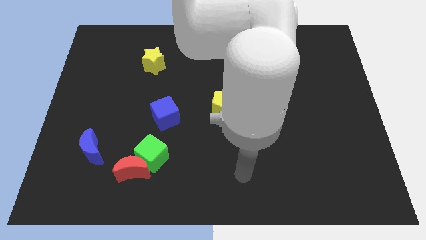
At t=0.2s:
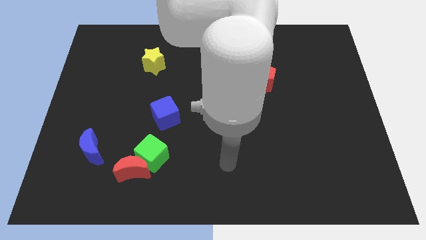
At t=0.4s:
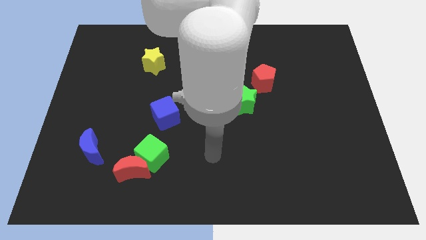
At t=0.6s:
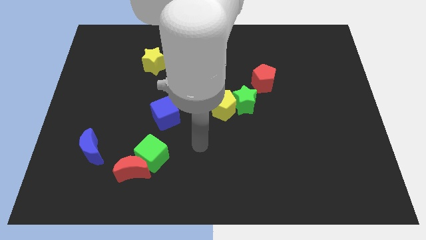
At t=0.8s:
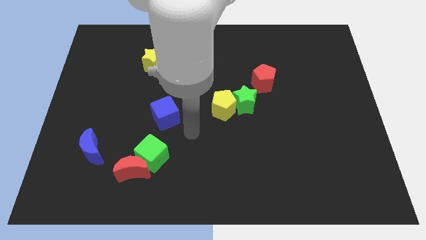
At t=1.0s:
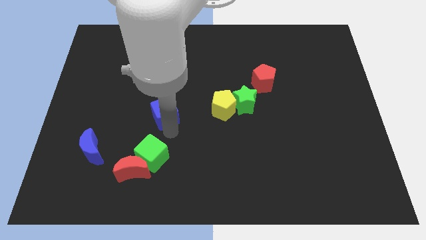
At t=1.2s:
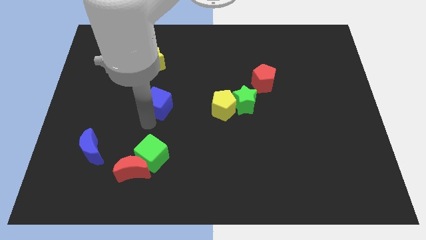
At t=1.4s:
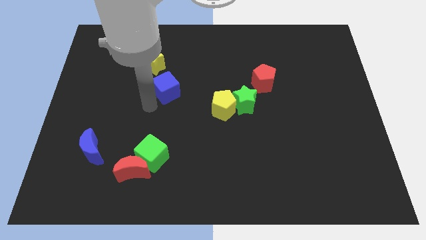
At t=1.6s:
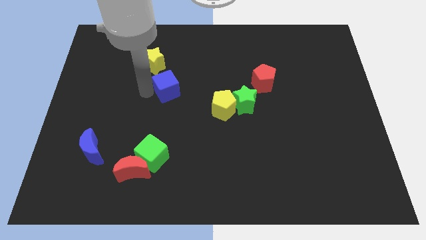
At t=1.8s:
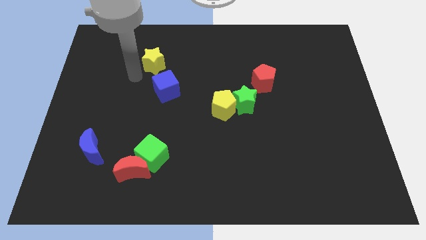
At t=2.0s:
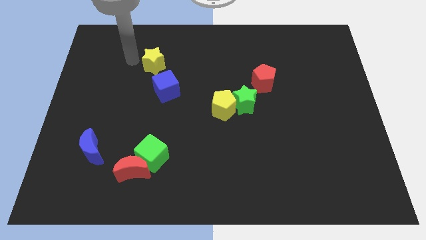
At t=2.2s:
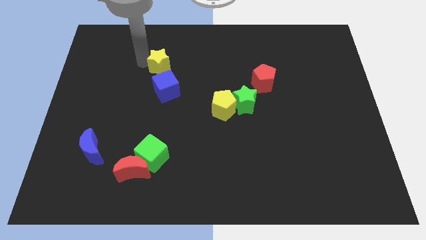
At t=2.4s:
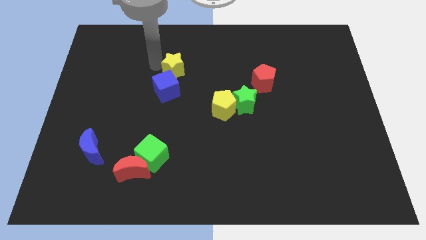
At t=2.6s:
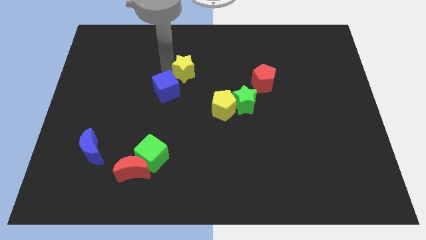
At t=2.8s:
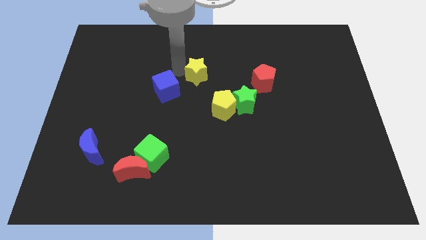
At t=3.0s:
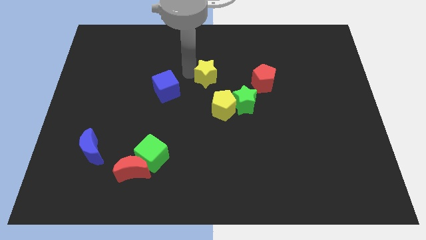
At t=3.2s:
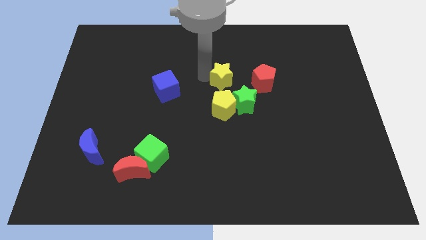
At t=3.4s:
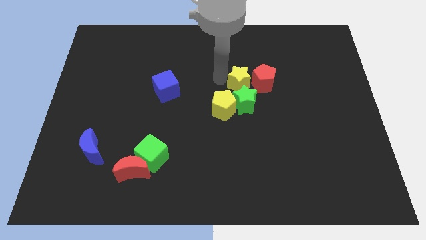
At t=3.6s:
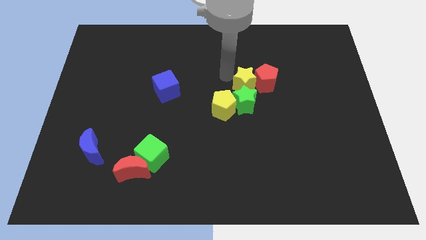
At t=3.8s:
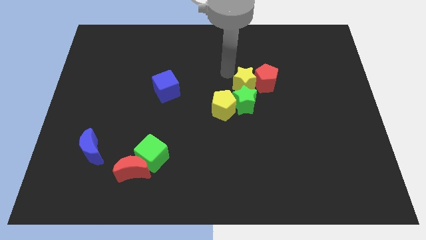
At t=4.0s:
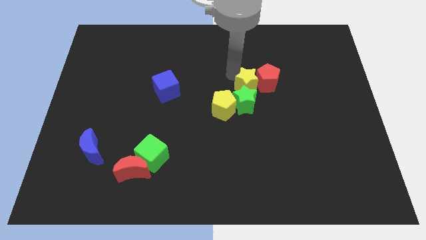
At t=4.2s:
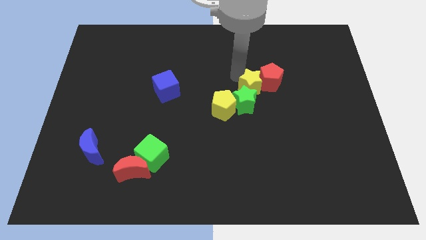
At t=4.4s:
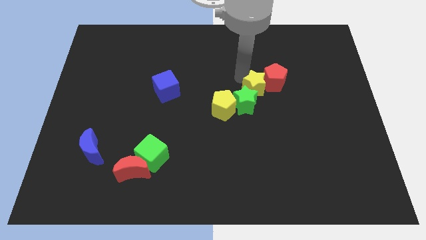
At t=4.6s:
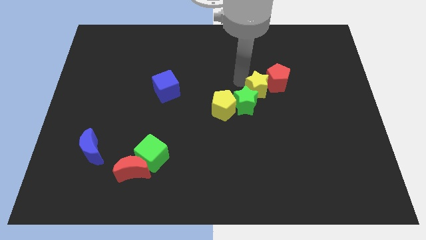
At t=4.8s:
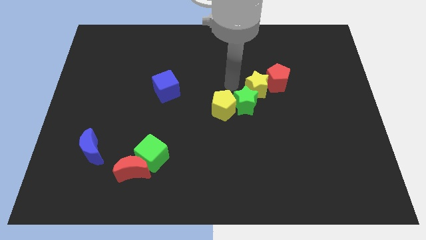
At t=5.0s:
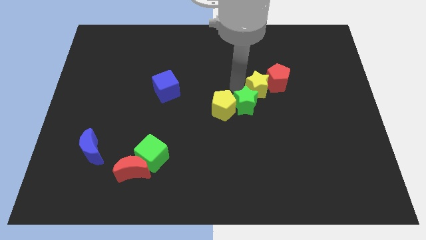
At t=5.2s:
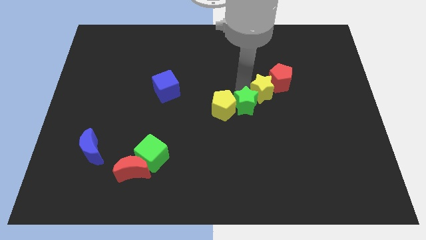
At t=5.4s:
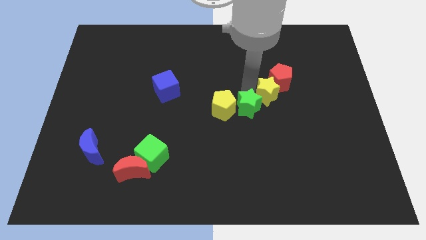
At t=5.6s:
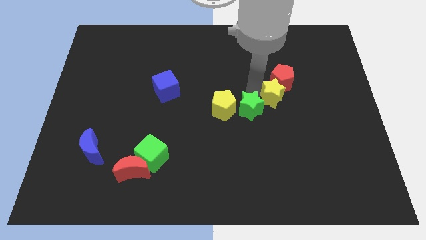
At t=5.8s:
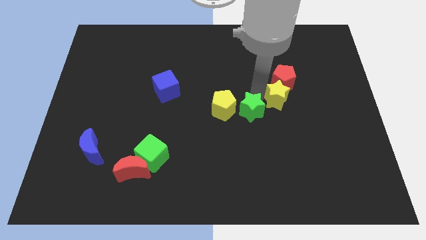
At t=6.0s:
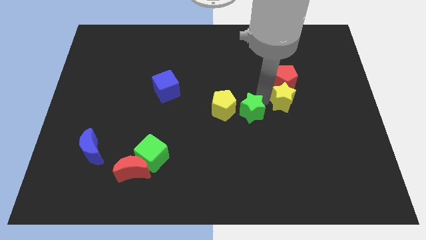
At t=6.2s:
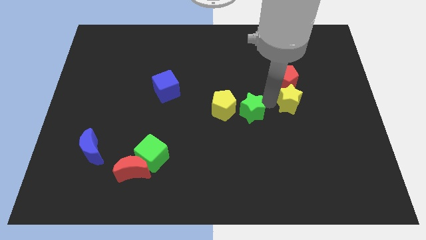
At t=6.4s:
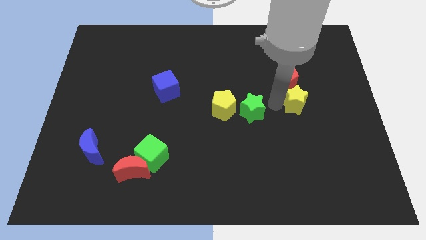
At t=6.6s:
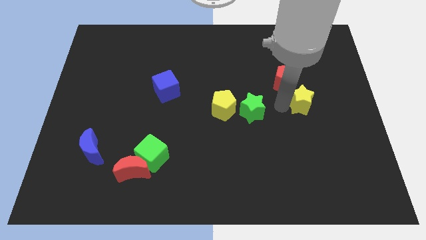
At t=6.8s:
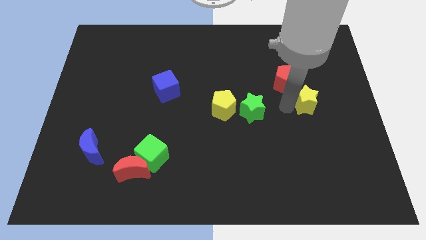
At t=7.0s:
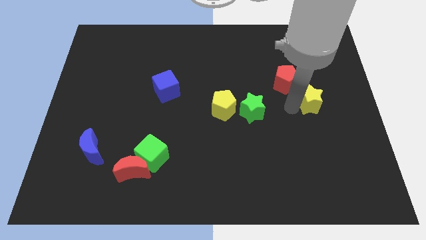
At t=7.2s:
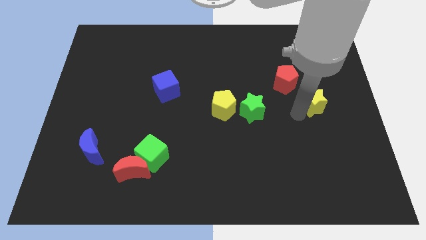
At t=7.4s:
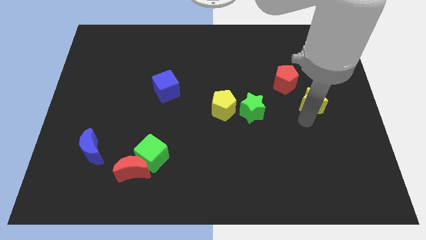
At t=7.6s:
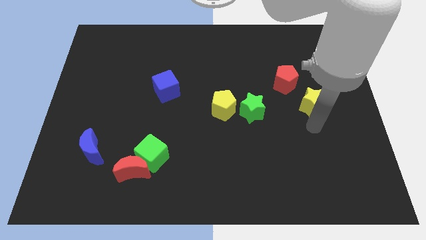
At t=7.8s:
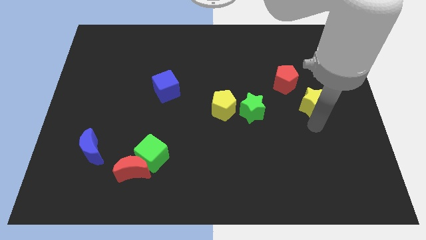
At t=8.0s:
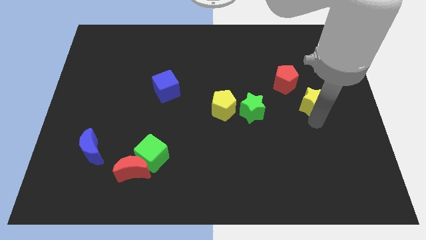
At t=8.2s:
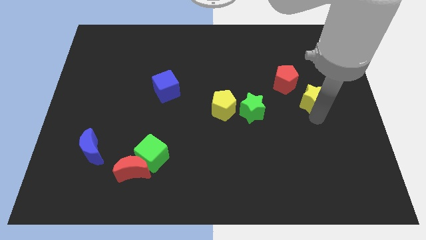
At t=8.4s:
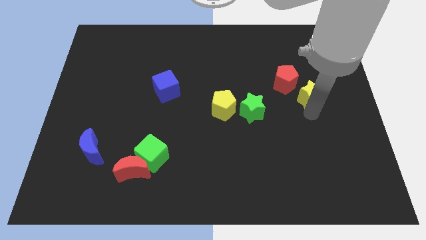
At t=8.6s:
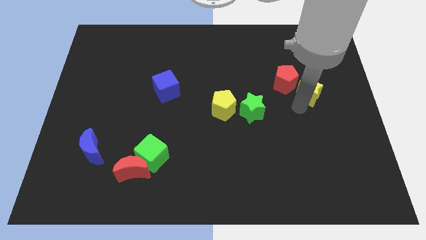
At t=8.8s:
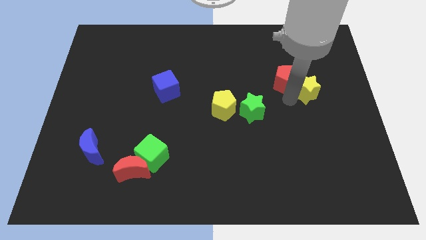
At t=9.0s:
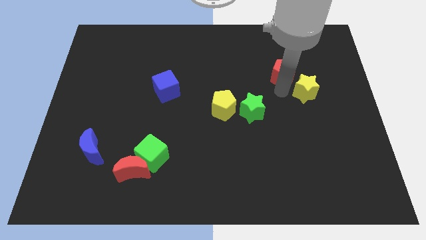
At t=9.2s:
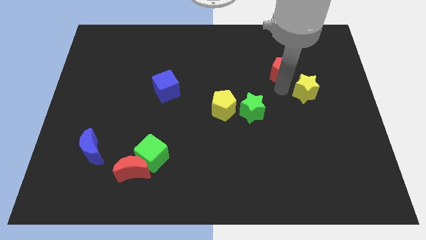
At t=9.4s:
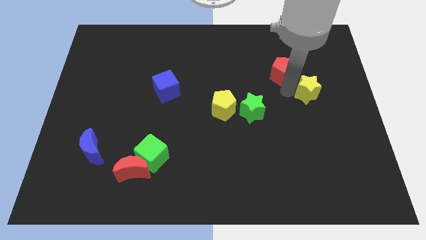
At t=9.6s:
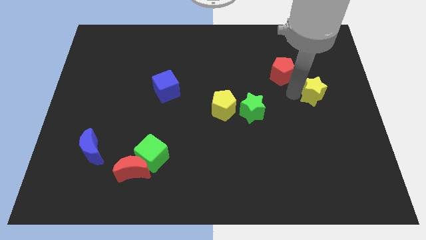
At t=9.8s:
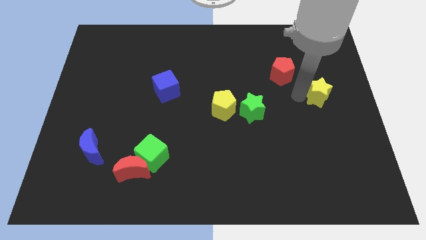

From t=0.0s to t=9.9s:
move the yellow star to the center right

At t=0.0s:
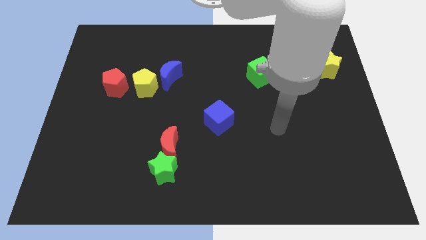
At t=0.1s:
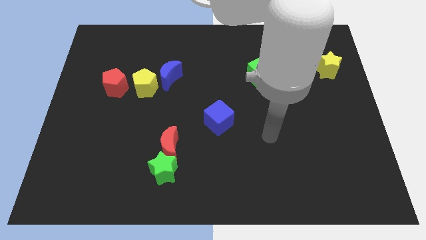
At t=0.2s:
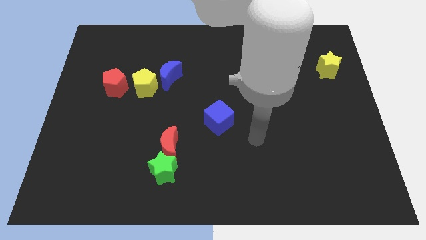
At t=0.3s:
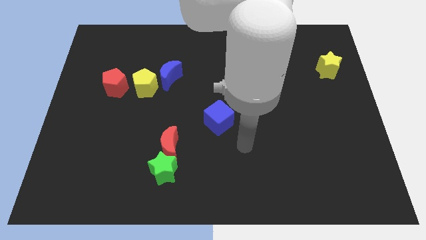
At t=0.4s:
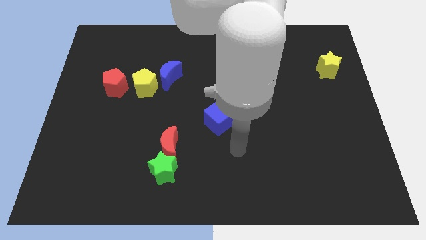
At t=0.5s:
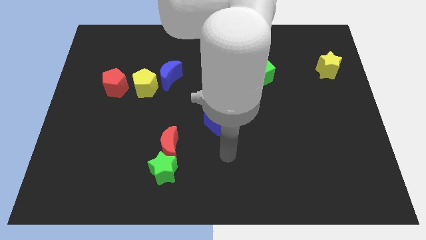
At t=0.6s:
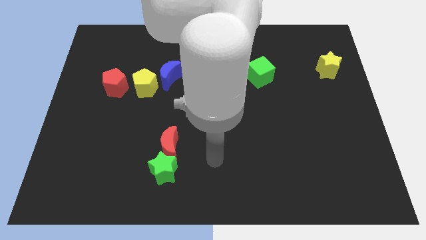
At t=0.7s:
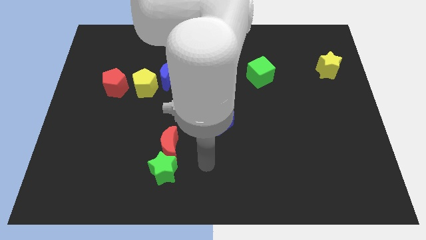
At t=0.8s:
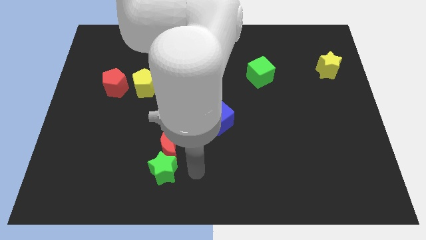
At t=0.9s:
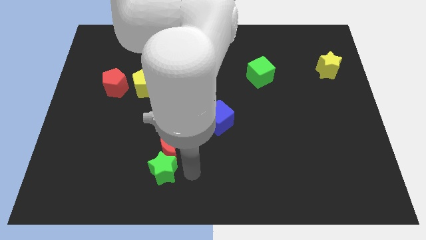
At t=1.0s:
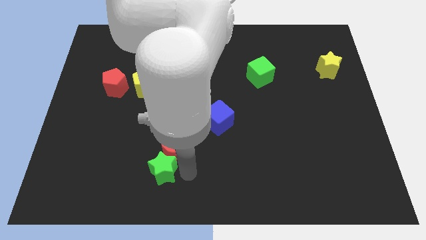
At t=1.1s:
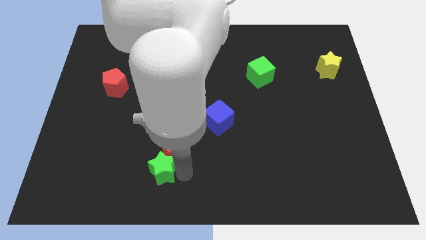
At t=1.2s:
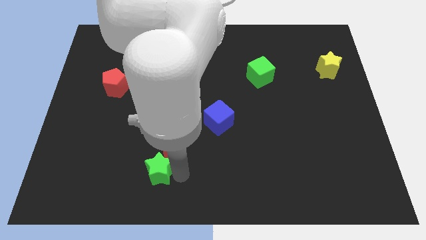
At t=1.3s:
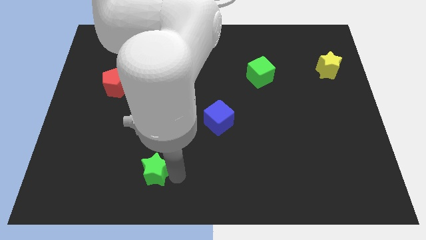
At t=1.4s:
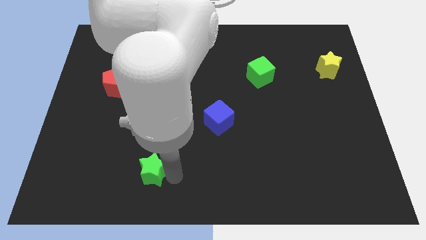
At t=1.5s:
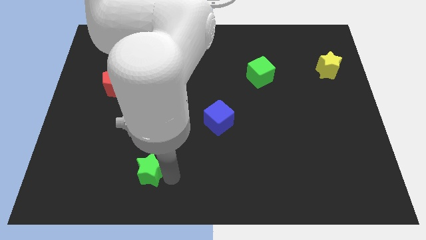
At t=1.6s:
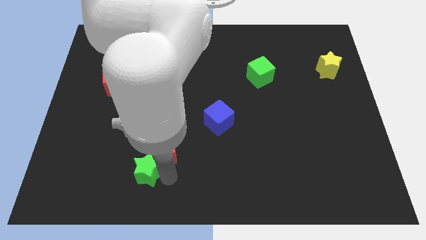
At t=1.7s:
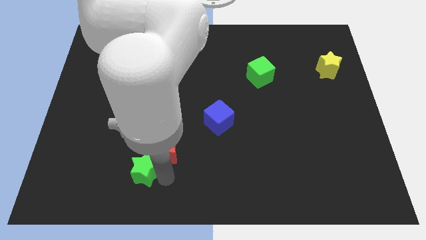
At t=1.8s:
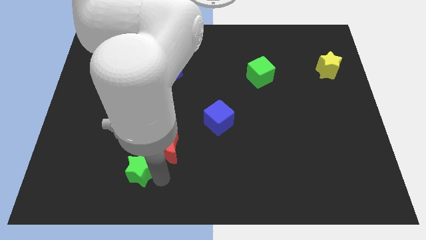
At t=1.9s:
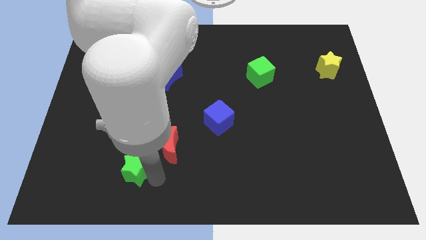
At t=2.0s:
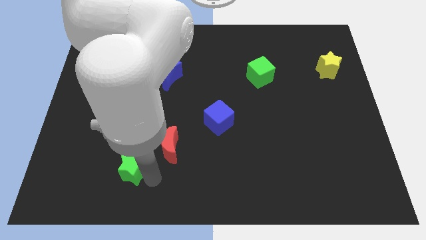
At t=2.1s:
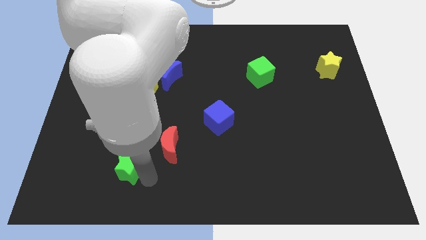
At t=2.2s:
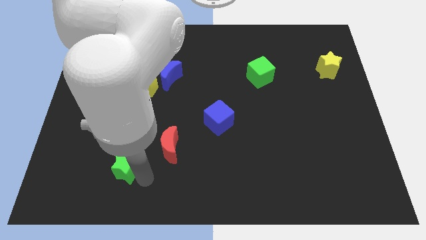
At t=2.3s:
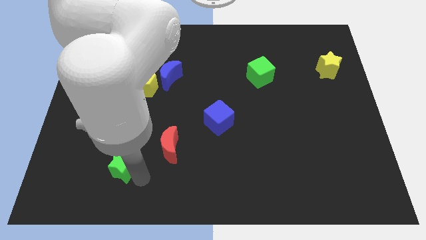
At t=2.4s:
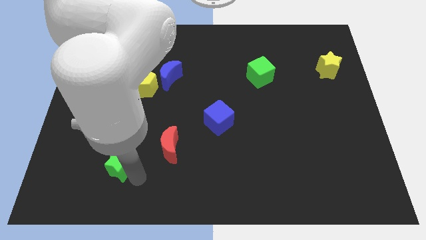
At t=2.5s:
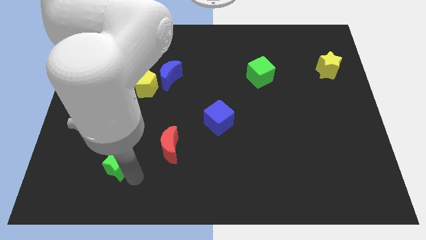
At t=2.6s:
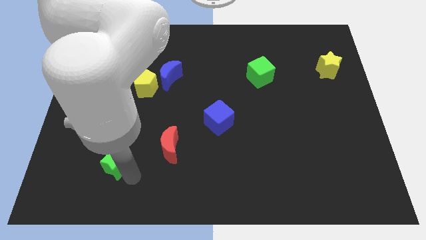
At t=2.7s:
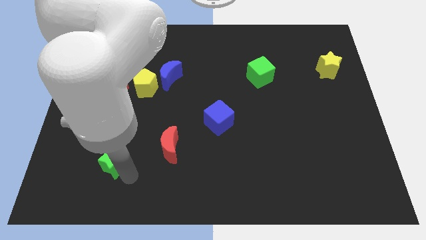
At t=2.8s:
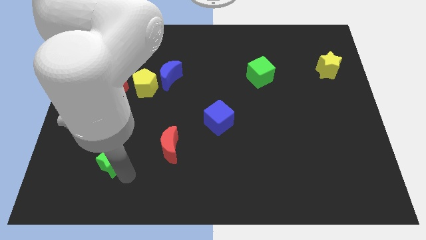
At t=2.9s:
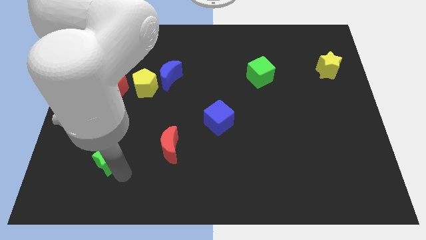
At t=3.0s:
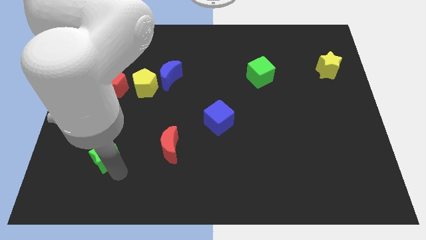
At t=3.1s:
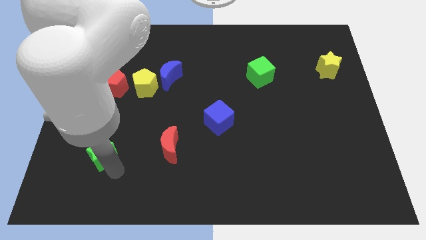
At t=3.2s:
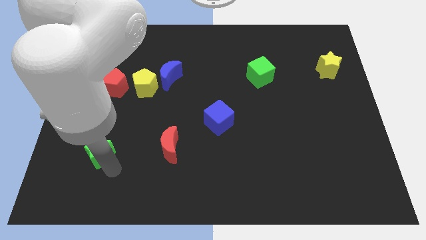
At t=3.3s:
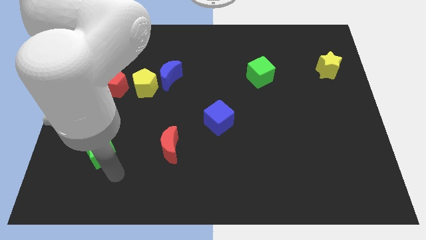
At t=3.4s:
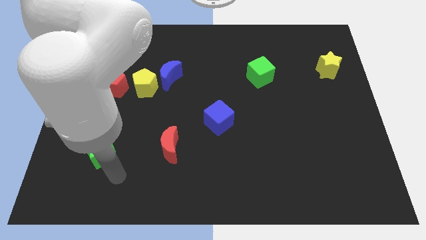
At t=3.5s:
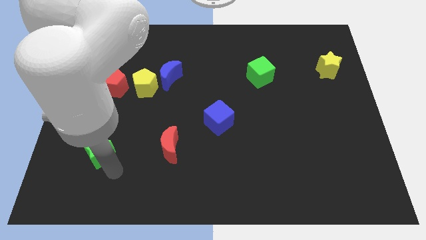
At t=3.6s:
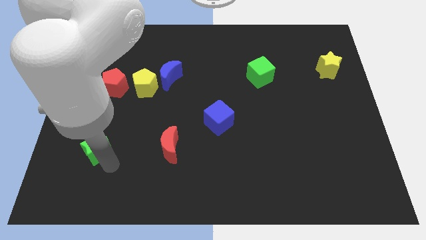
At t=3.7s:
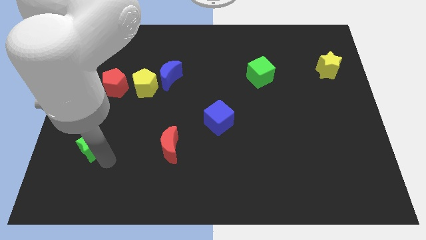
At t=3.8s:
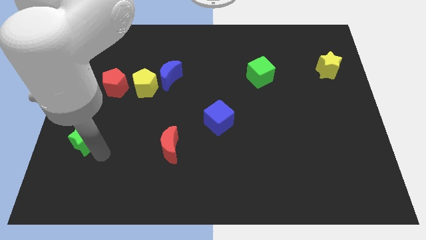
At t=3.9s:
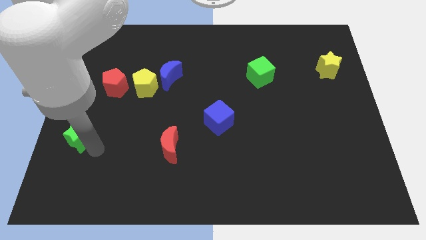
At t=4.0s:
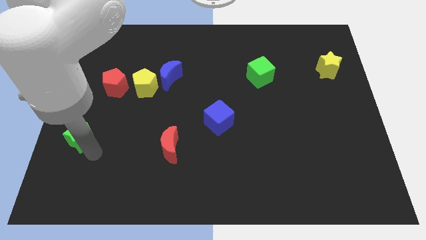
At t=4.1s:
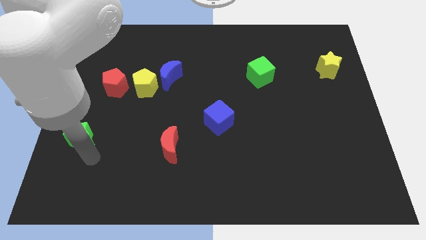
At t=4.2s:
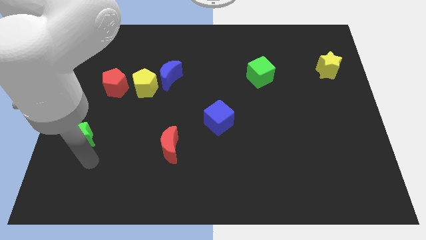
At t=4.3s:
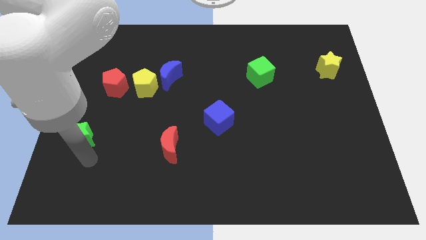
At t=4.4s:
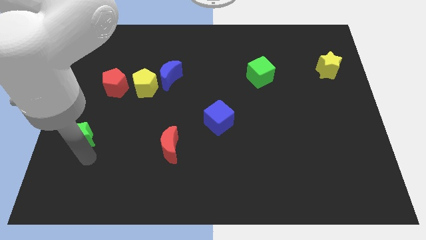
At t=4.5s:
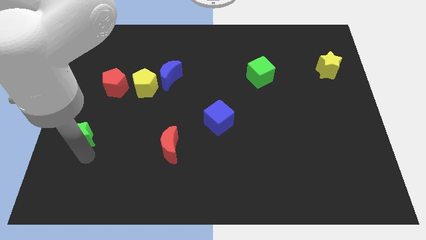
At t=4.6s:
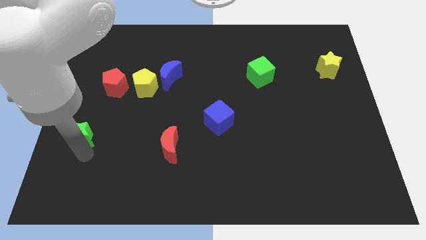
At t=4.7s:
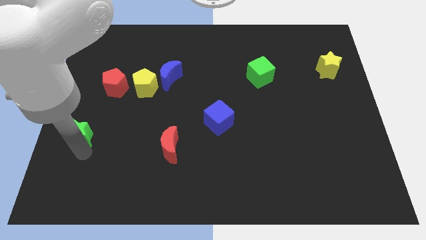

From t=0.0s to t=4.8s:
push the green star to the left side of the board
